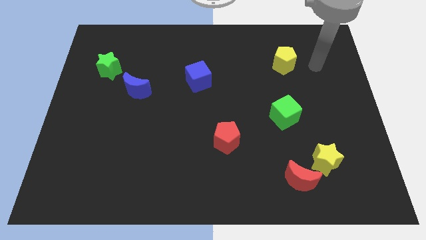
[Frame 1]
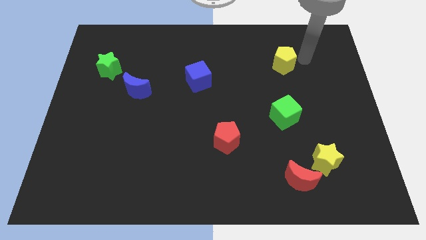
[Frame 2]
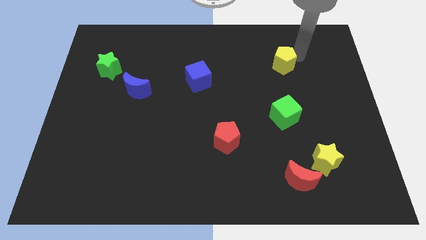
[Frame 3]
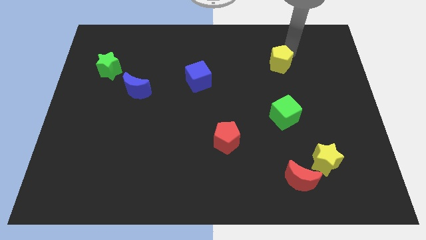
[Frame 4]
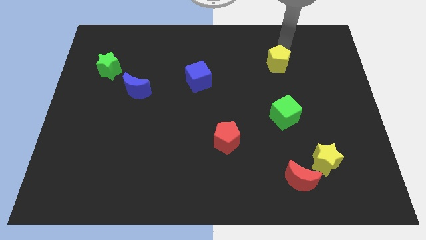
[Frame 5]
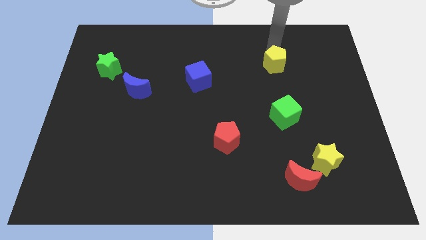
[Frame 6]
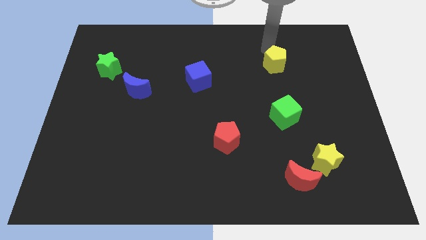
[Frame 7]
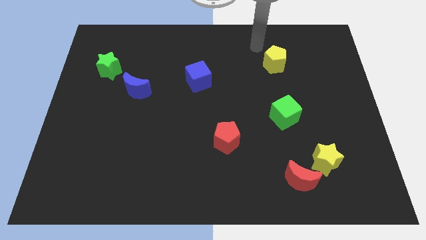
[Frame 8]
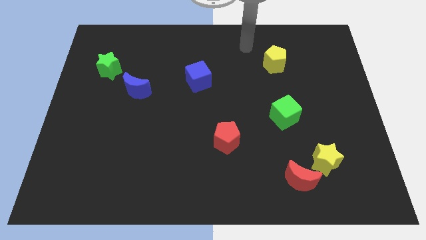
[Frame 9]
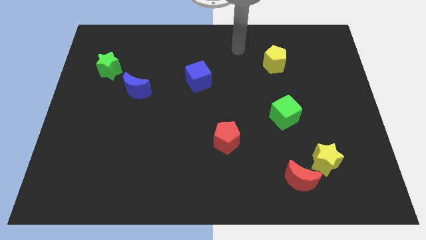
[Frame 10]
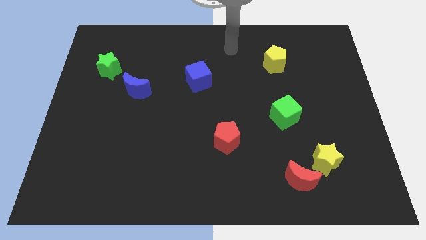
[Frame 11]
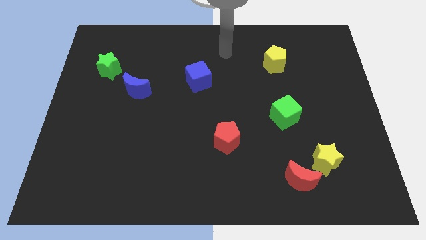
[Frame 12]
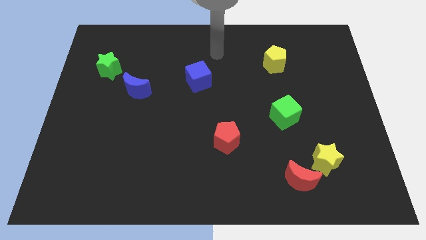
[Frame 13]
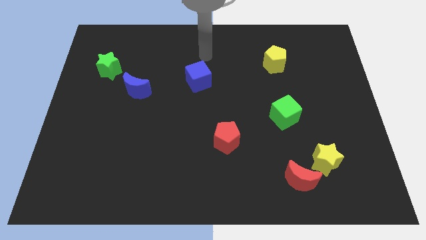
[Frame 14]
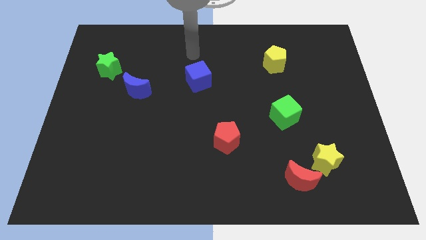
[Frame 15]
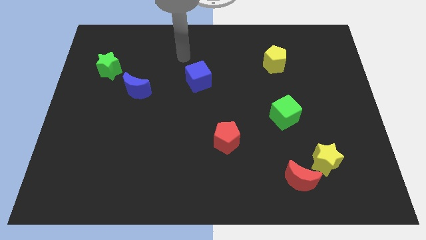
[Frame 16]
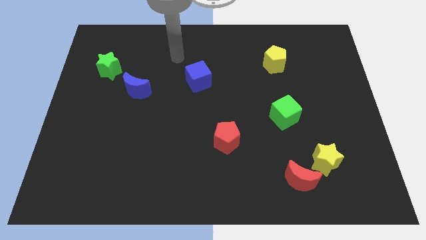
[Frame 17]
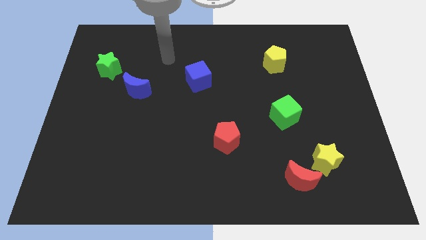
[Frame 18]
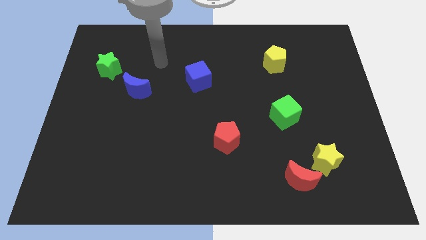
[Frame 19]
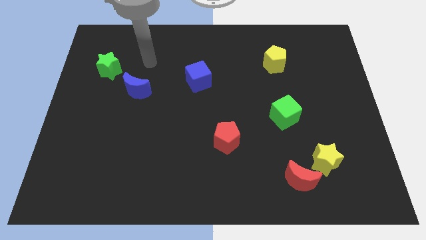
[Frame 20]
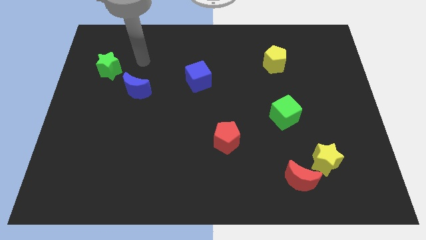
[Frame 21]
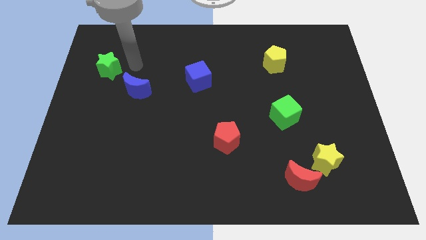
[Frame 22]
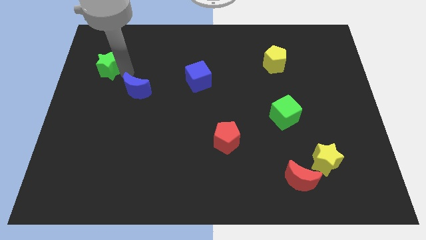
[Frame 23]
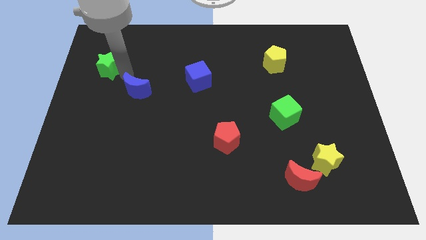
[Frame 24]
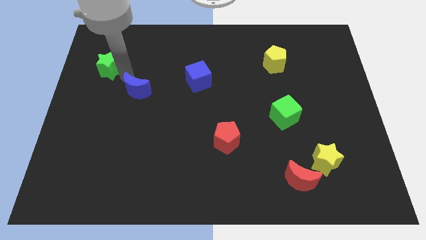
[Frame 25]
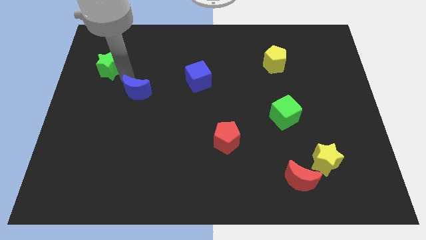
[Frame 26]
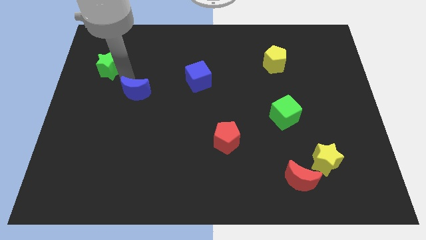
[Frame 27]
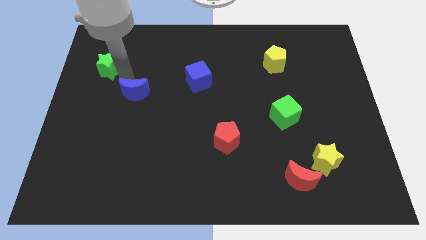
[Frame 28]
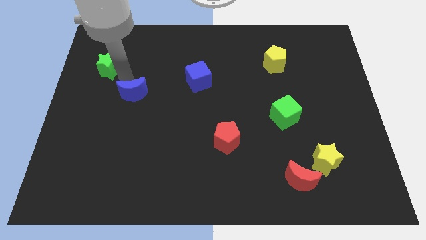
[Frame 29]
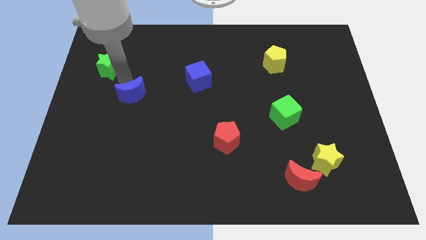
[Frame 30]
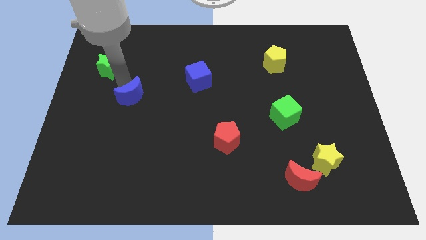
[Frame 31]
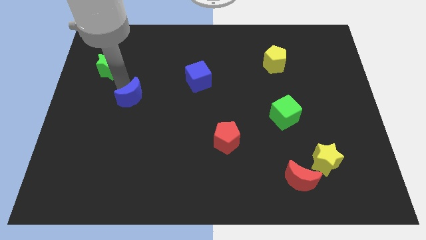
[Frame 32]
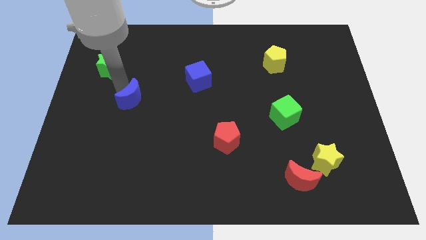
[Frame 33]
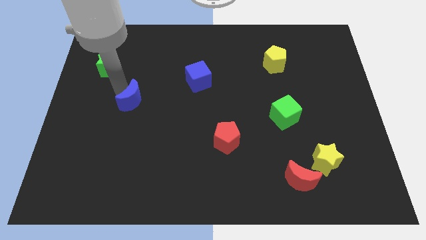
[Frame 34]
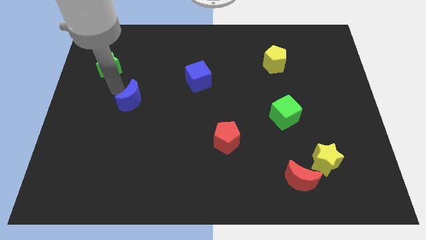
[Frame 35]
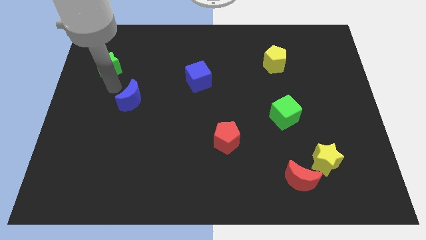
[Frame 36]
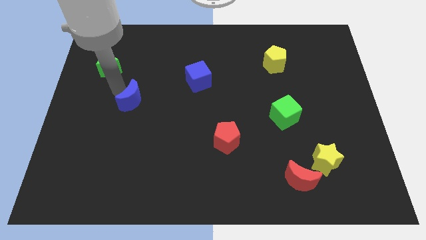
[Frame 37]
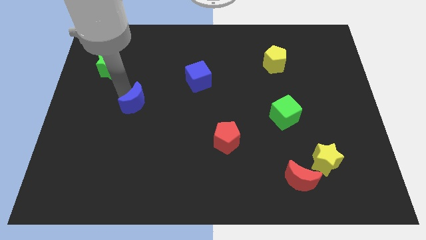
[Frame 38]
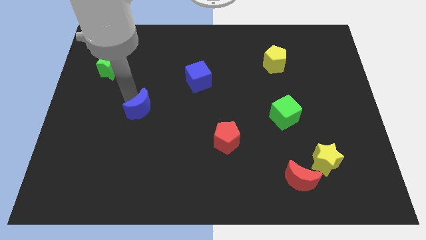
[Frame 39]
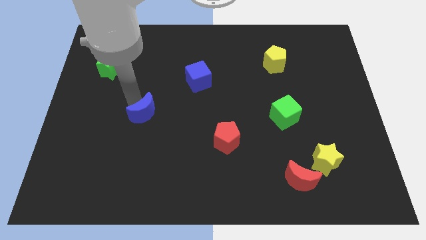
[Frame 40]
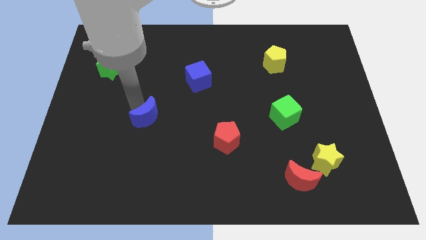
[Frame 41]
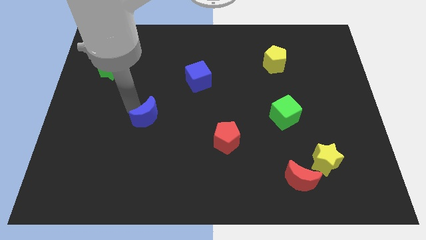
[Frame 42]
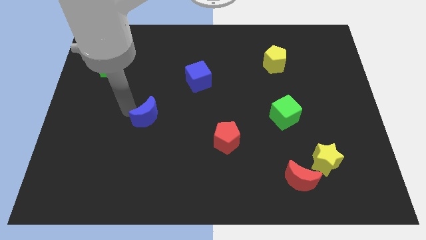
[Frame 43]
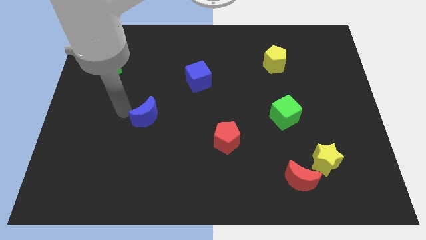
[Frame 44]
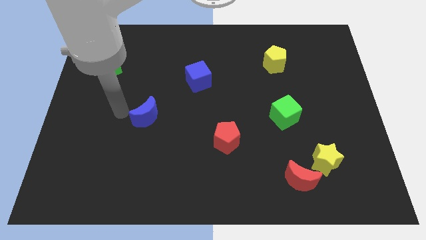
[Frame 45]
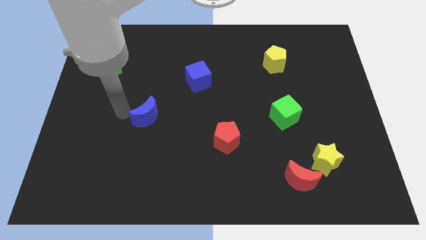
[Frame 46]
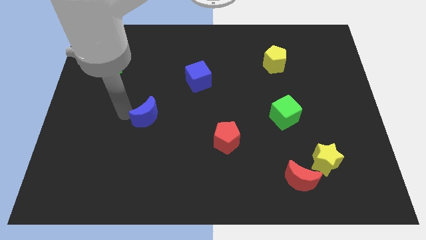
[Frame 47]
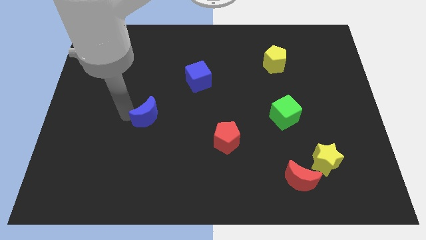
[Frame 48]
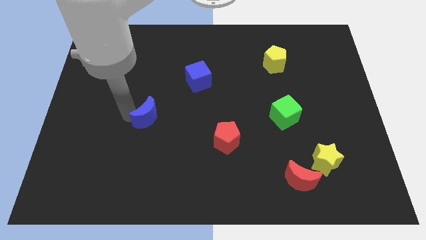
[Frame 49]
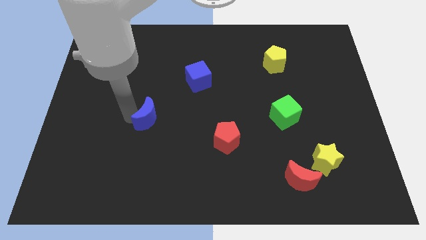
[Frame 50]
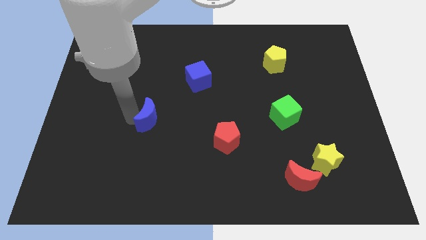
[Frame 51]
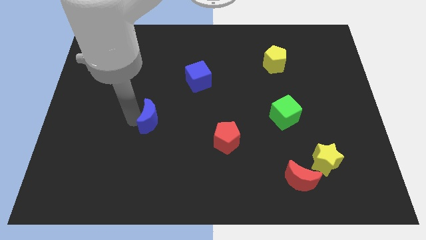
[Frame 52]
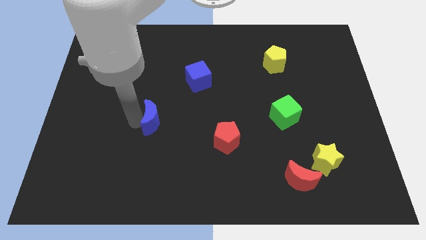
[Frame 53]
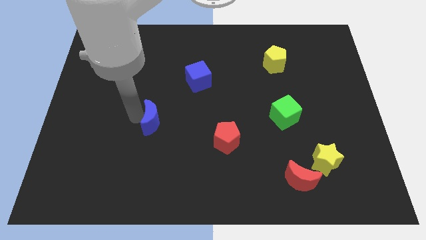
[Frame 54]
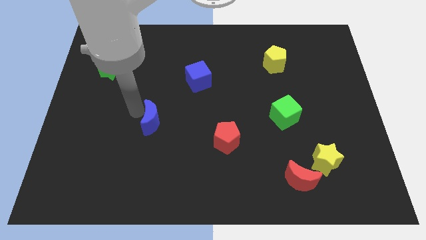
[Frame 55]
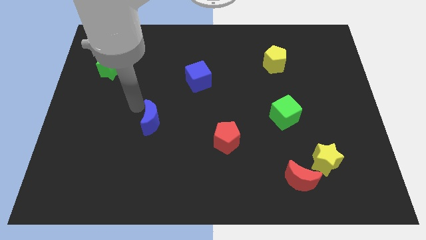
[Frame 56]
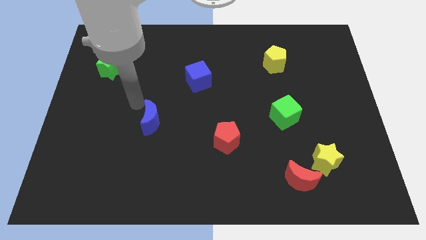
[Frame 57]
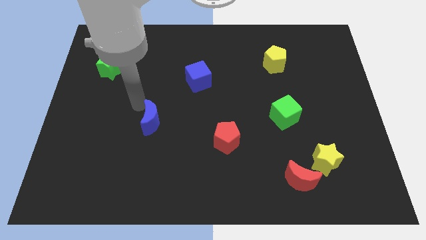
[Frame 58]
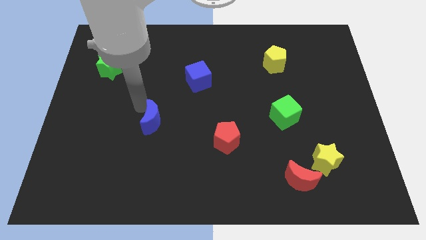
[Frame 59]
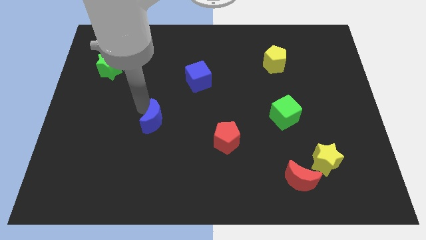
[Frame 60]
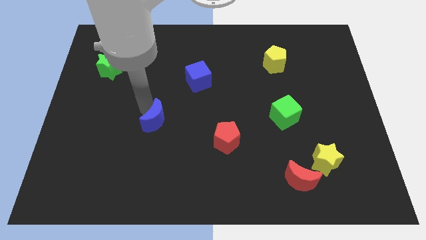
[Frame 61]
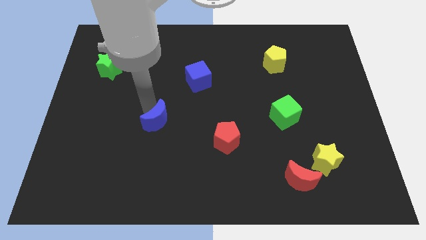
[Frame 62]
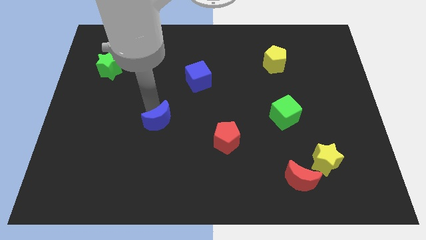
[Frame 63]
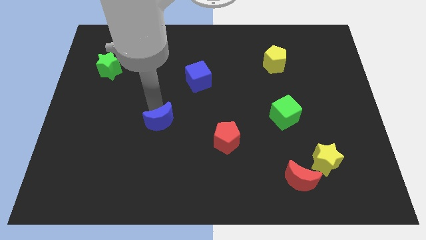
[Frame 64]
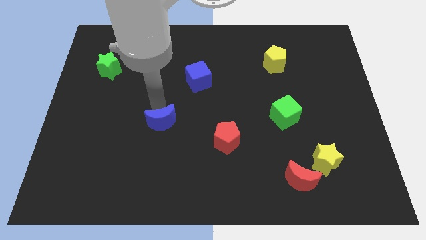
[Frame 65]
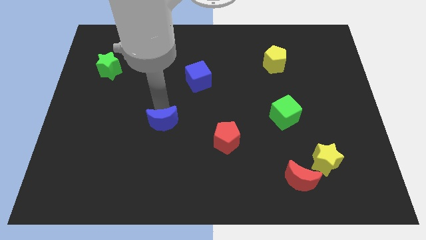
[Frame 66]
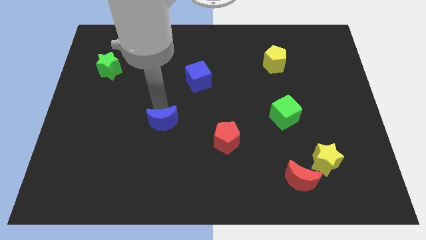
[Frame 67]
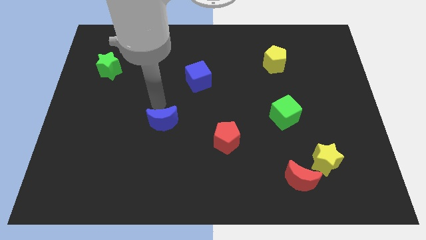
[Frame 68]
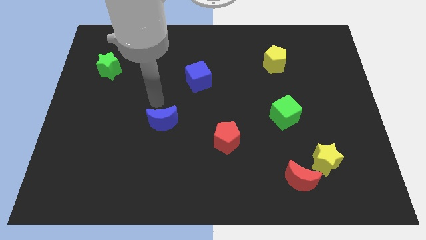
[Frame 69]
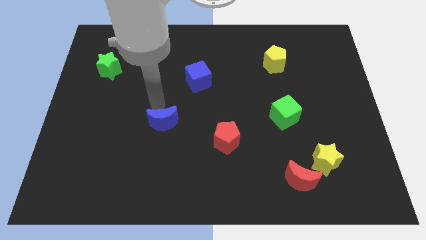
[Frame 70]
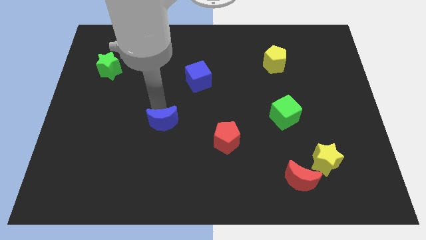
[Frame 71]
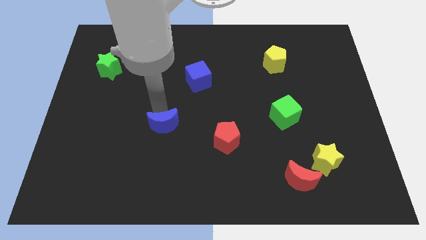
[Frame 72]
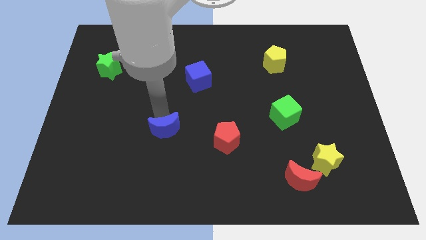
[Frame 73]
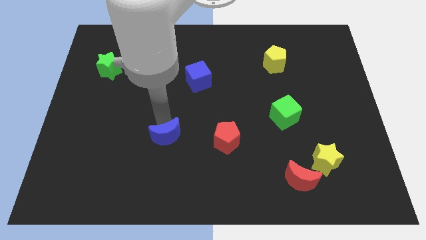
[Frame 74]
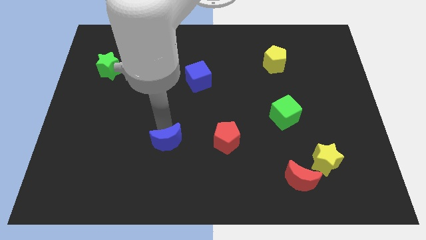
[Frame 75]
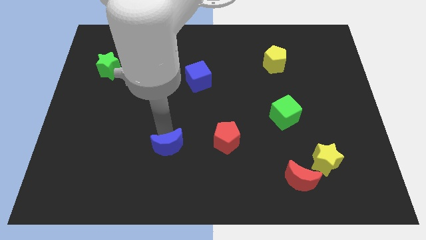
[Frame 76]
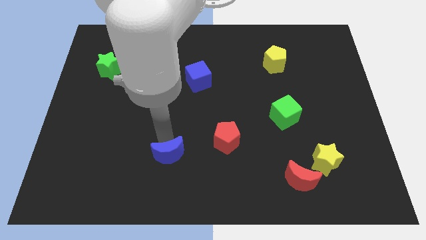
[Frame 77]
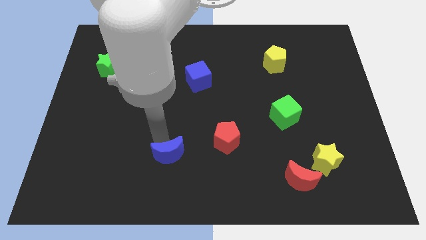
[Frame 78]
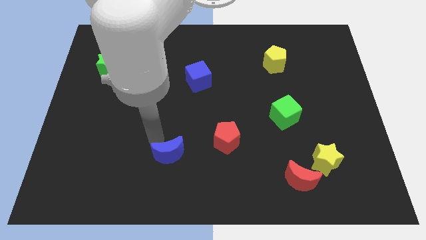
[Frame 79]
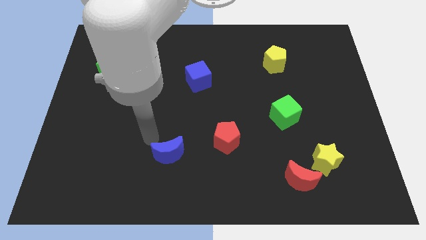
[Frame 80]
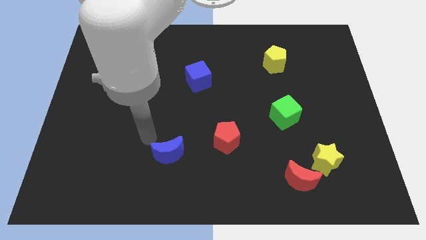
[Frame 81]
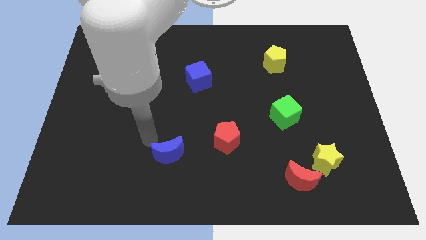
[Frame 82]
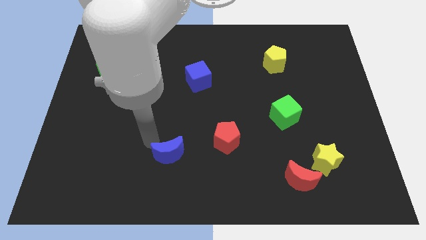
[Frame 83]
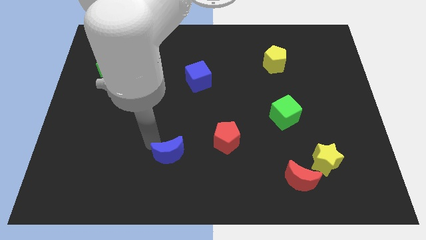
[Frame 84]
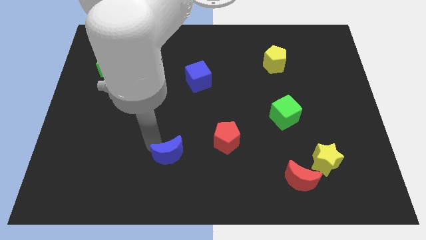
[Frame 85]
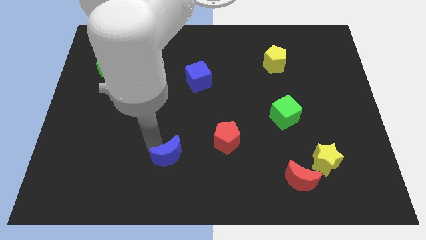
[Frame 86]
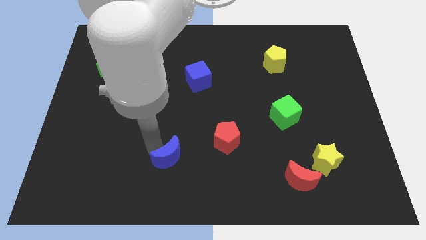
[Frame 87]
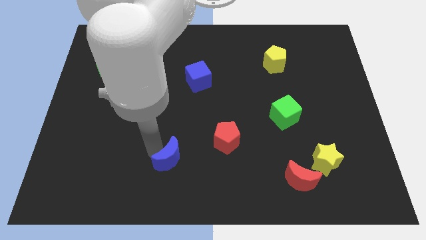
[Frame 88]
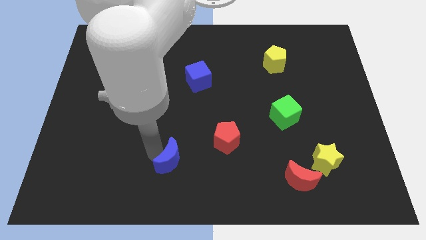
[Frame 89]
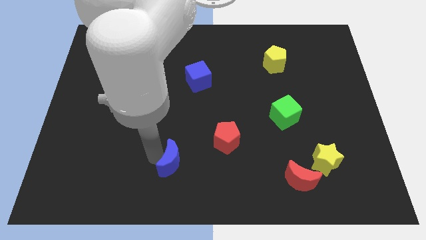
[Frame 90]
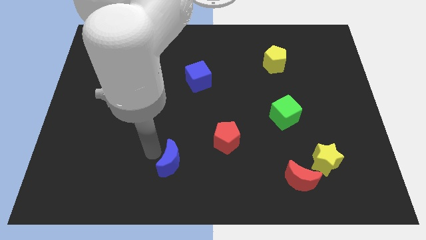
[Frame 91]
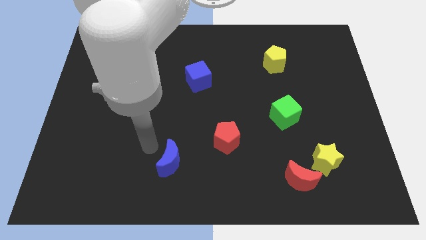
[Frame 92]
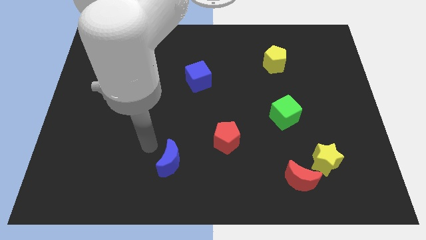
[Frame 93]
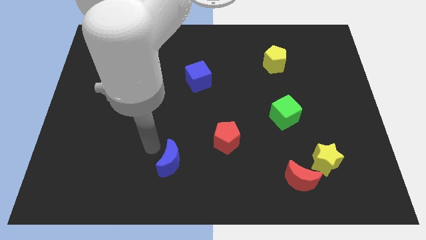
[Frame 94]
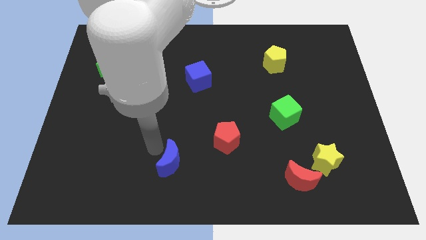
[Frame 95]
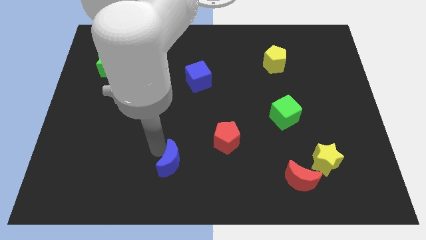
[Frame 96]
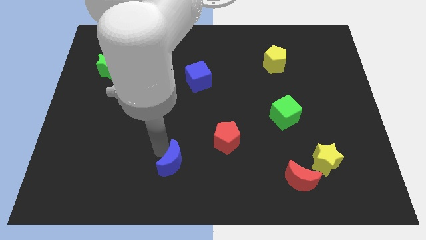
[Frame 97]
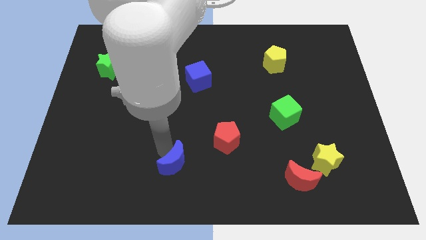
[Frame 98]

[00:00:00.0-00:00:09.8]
put the blue moon to the bottom side
